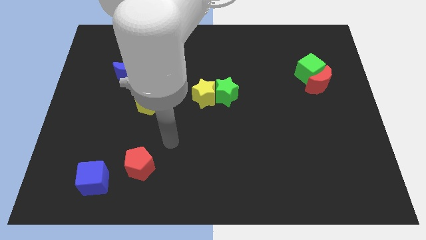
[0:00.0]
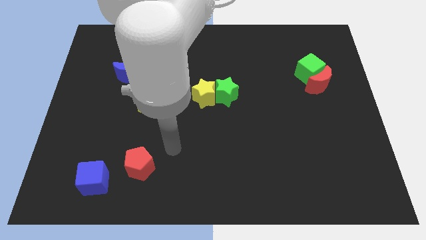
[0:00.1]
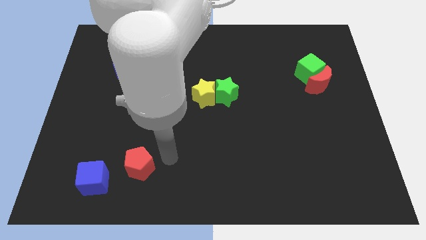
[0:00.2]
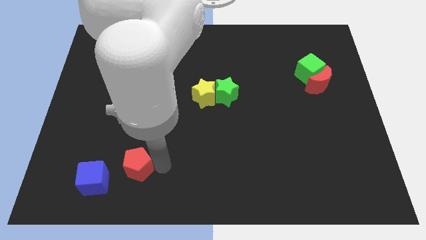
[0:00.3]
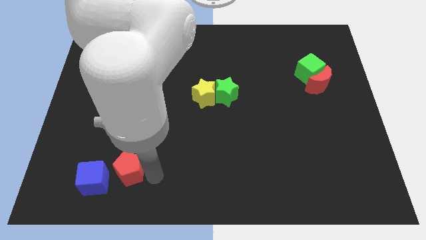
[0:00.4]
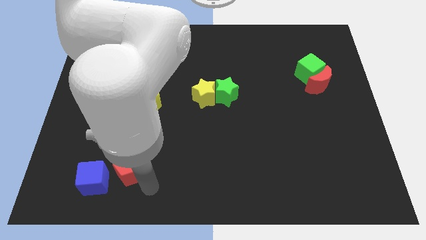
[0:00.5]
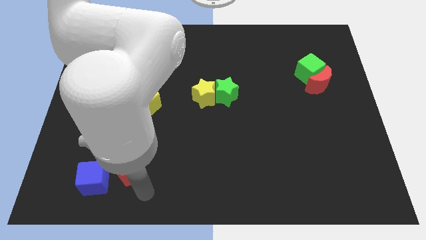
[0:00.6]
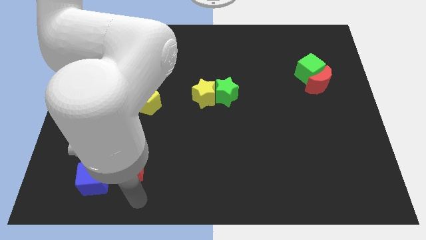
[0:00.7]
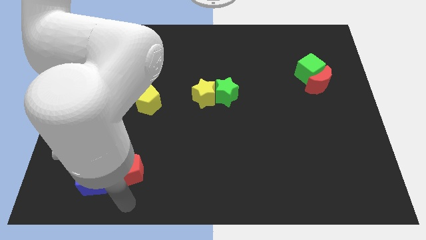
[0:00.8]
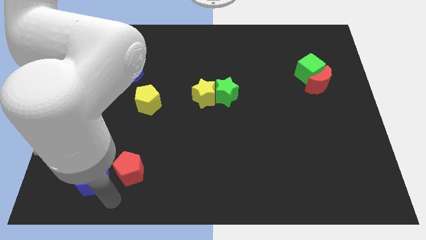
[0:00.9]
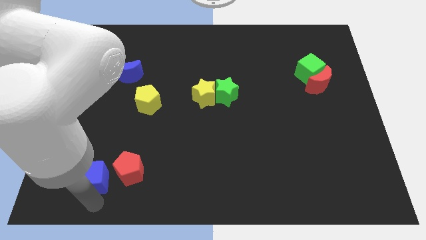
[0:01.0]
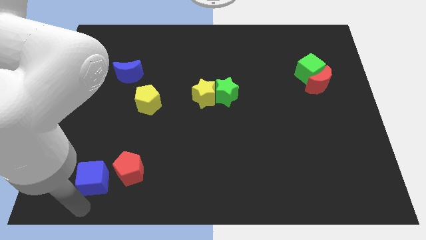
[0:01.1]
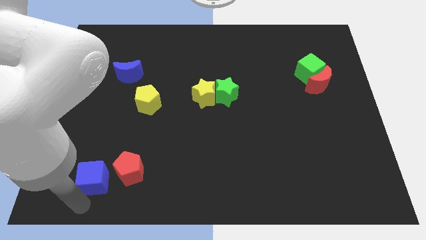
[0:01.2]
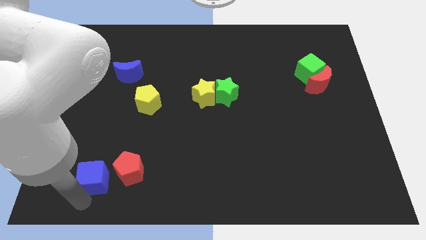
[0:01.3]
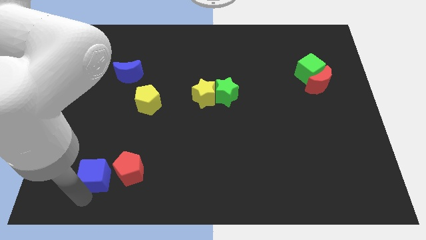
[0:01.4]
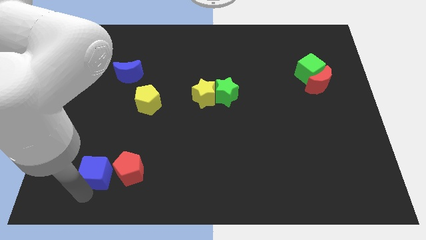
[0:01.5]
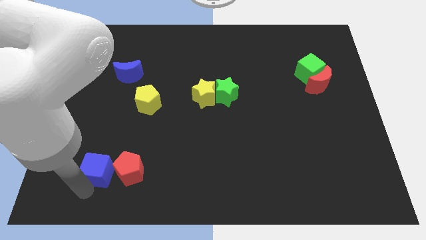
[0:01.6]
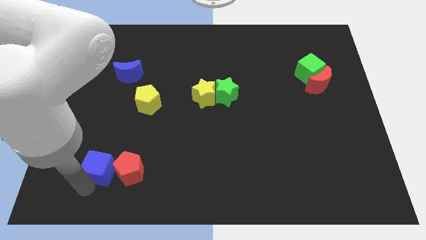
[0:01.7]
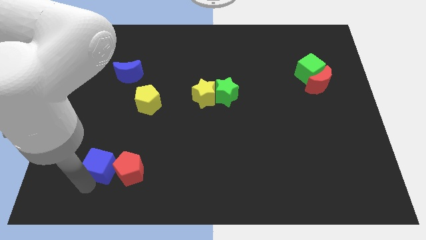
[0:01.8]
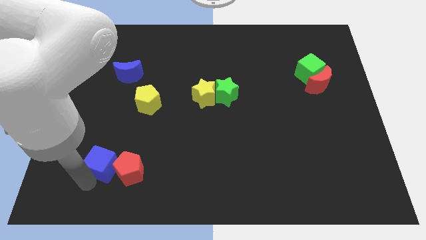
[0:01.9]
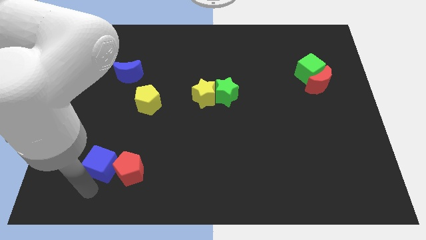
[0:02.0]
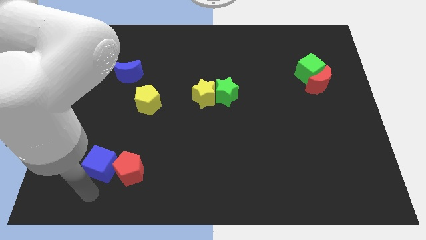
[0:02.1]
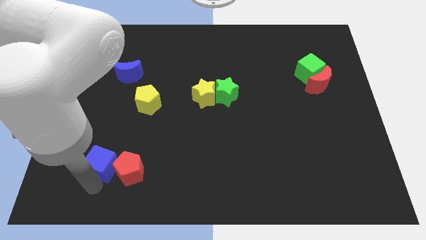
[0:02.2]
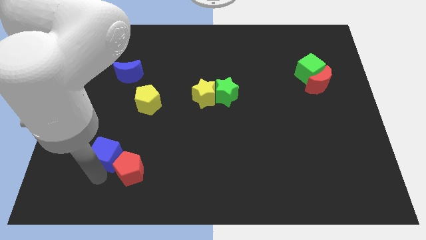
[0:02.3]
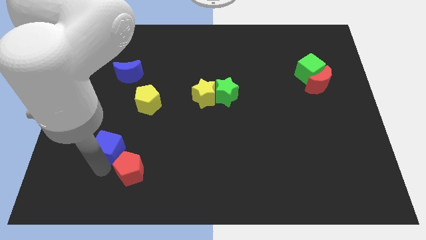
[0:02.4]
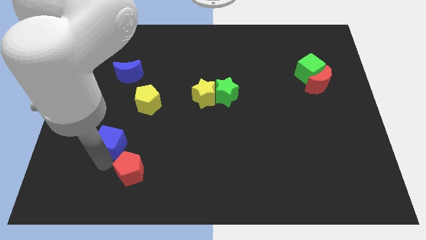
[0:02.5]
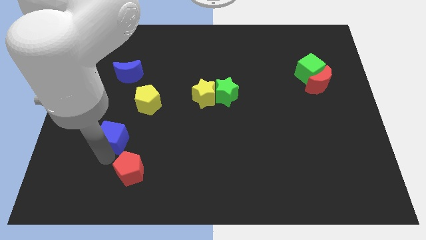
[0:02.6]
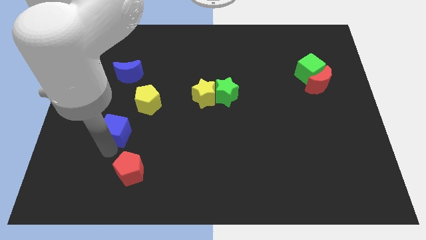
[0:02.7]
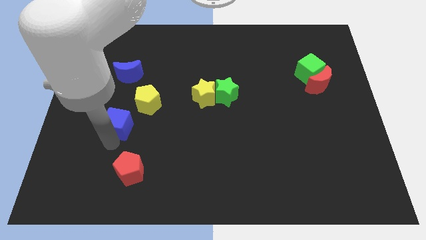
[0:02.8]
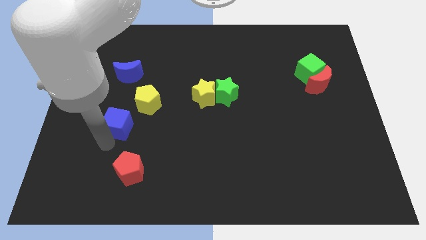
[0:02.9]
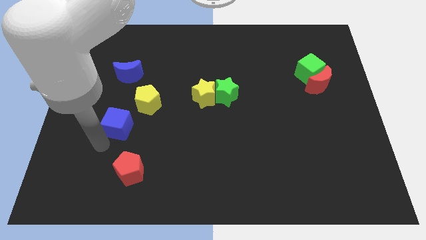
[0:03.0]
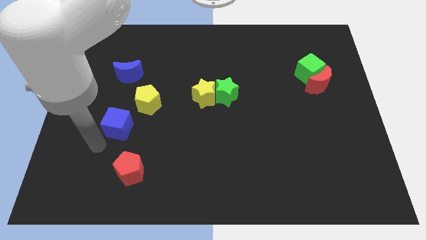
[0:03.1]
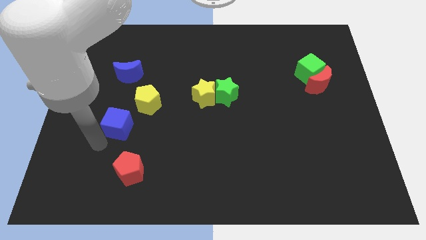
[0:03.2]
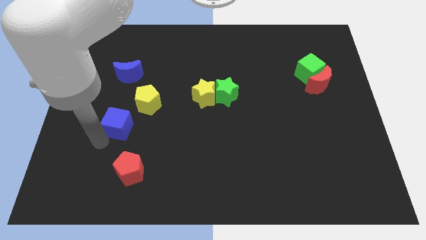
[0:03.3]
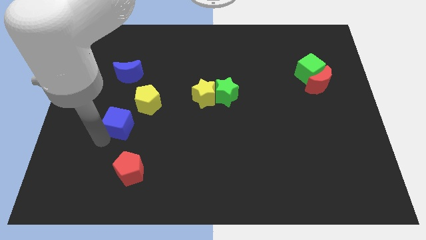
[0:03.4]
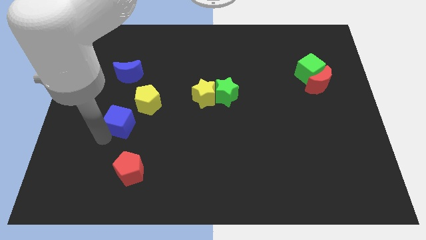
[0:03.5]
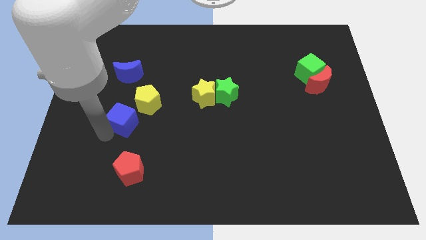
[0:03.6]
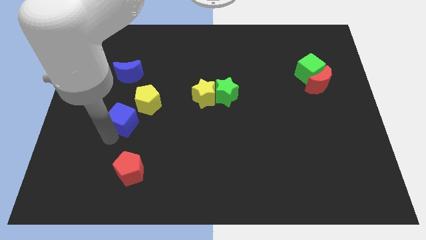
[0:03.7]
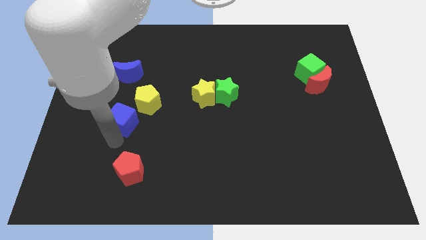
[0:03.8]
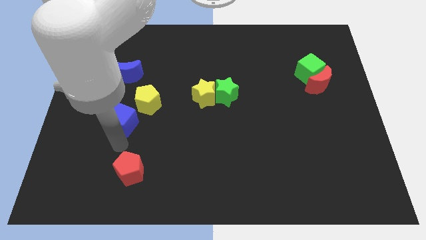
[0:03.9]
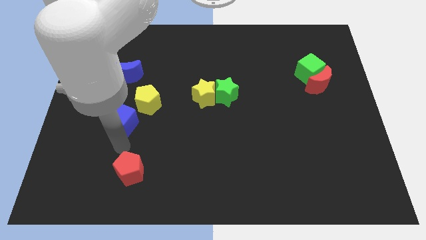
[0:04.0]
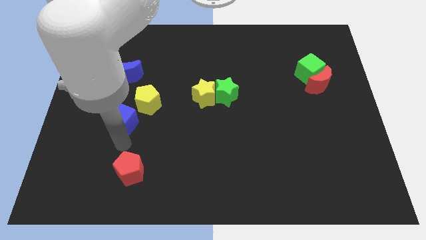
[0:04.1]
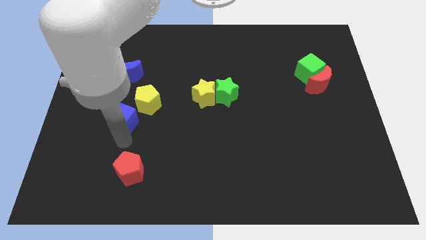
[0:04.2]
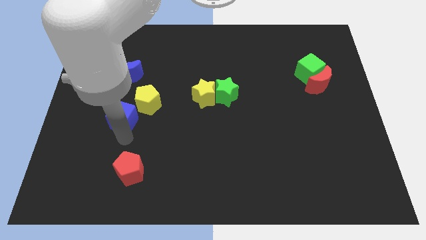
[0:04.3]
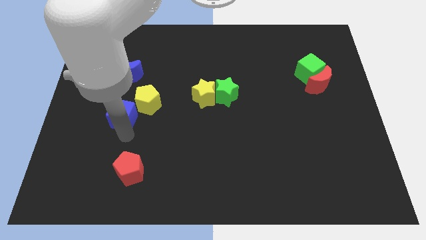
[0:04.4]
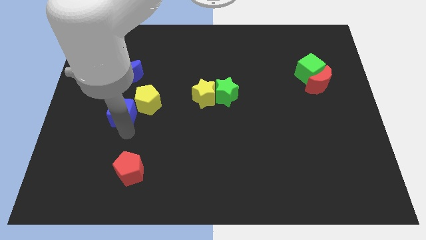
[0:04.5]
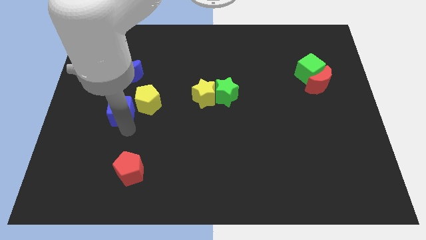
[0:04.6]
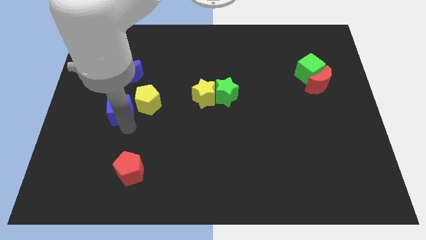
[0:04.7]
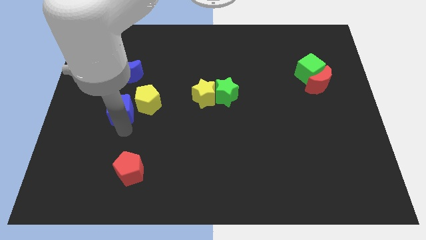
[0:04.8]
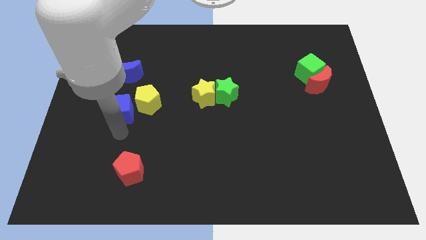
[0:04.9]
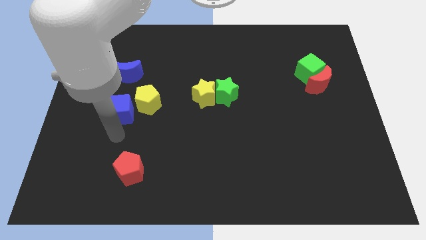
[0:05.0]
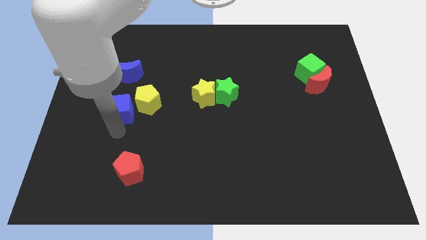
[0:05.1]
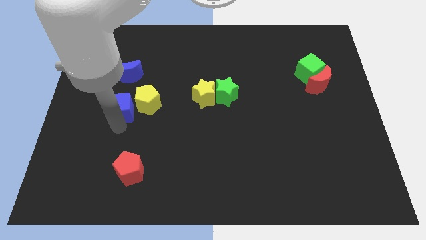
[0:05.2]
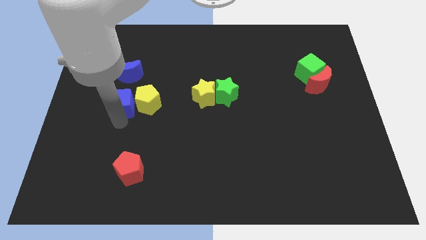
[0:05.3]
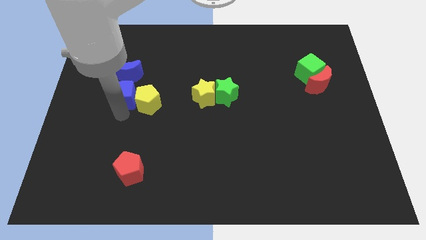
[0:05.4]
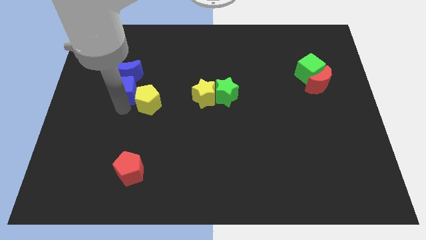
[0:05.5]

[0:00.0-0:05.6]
move the blue cube to the blue moon

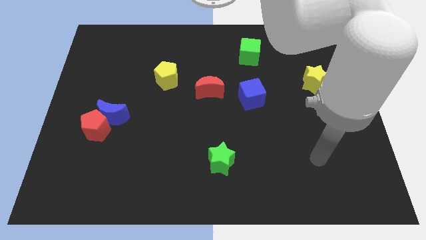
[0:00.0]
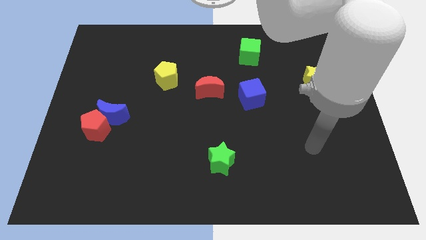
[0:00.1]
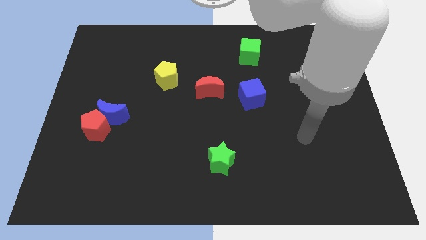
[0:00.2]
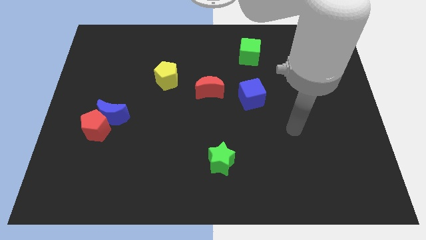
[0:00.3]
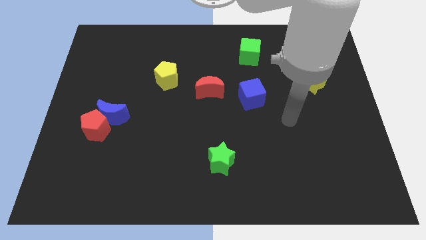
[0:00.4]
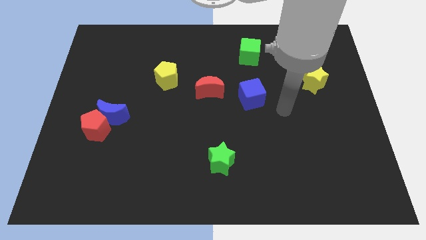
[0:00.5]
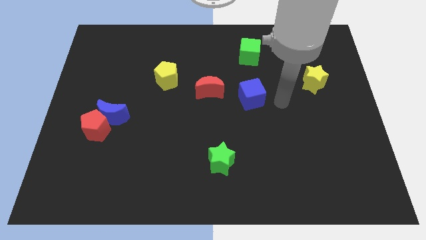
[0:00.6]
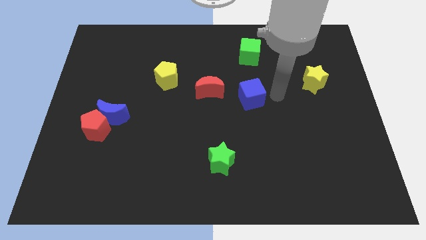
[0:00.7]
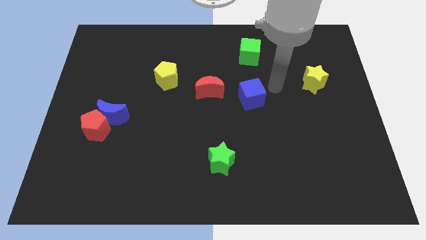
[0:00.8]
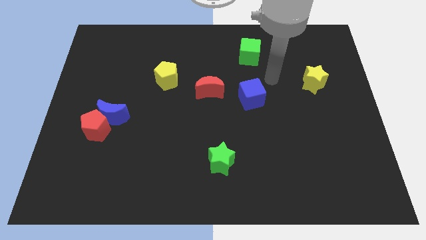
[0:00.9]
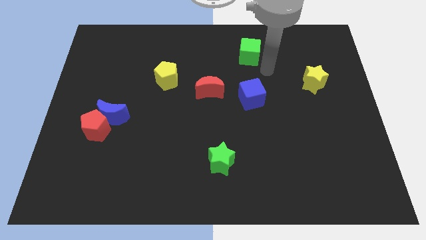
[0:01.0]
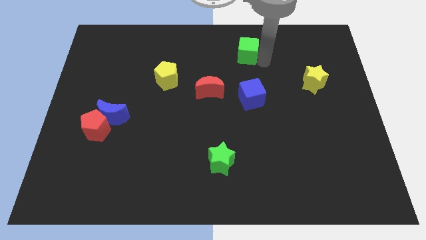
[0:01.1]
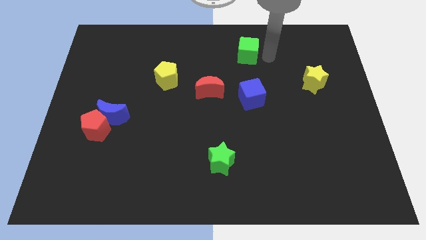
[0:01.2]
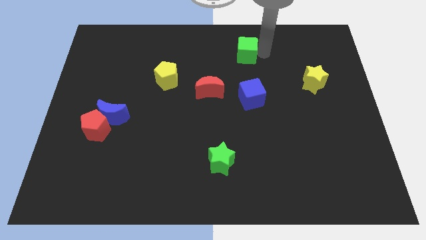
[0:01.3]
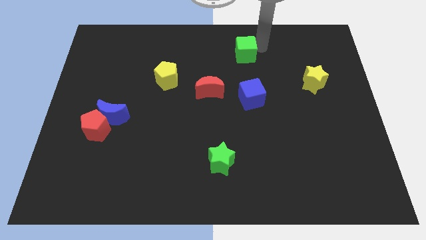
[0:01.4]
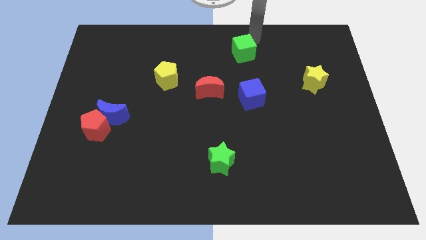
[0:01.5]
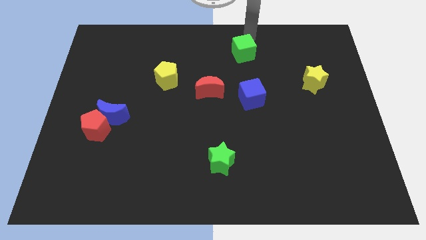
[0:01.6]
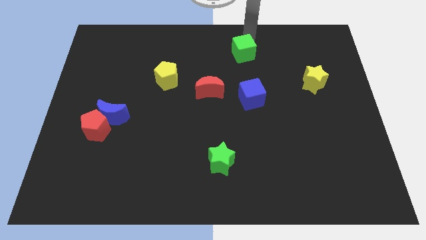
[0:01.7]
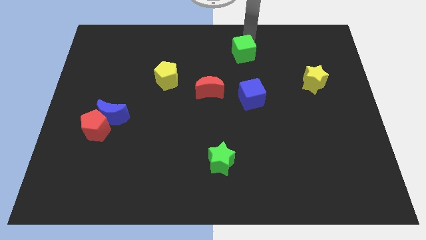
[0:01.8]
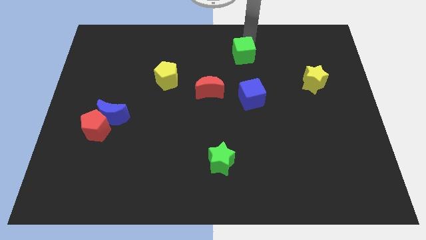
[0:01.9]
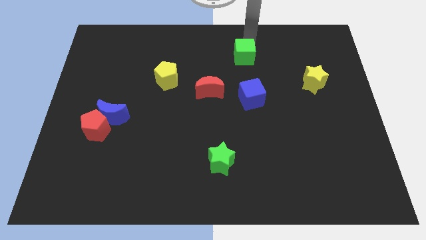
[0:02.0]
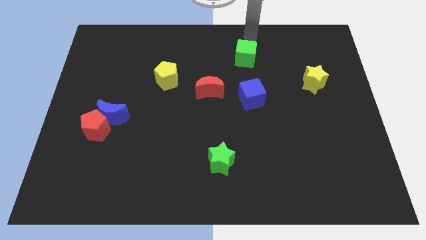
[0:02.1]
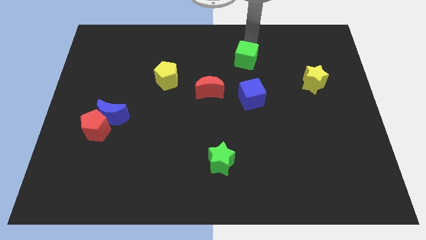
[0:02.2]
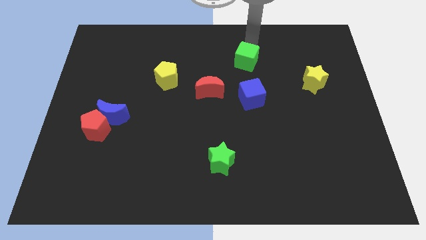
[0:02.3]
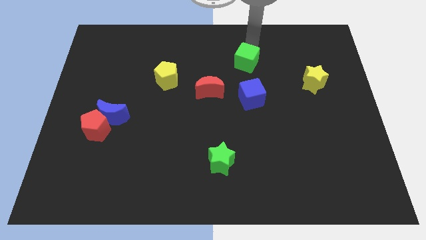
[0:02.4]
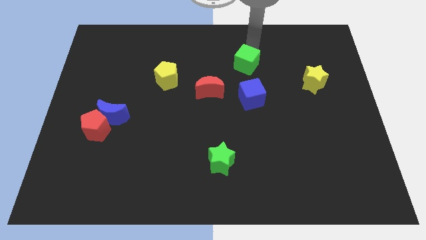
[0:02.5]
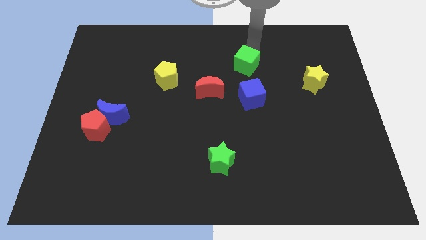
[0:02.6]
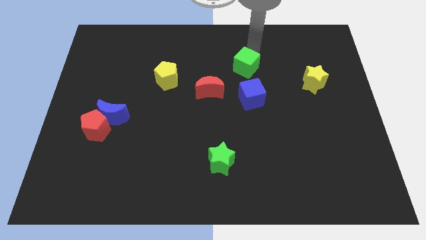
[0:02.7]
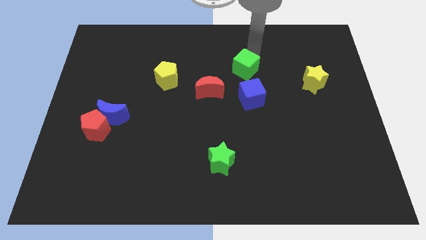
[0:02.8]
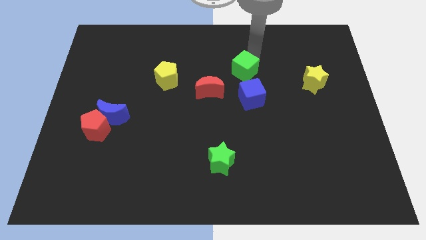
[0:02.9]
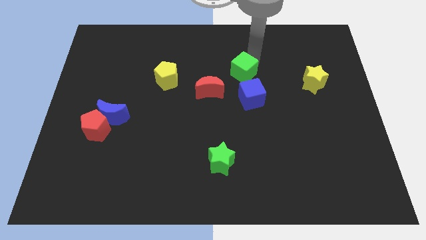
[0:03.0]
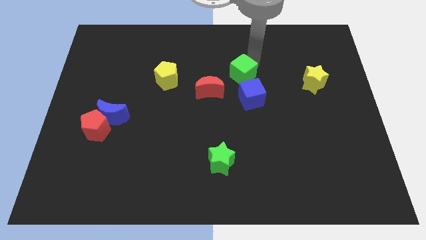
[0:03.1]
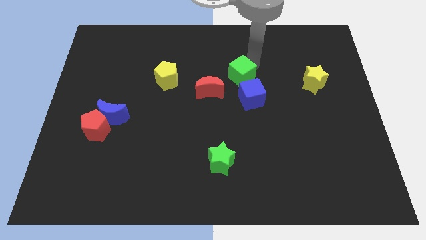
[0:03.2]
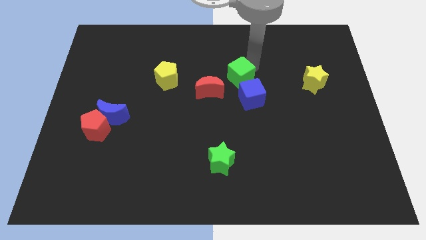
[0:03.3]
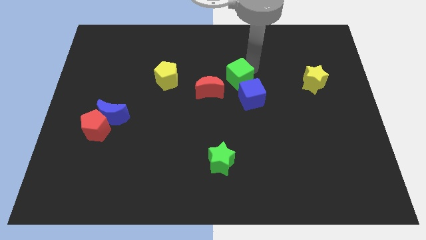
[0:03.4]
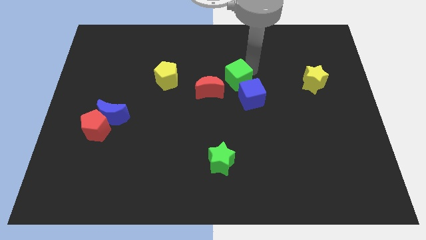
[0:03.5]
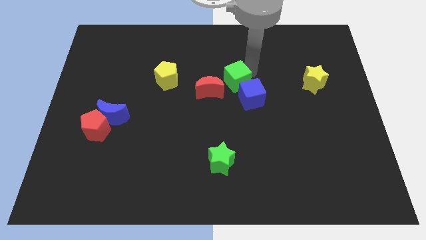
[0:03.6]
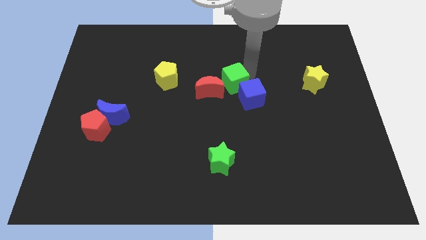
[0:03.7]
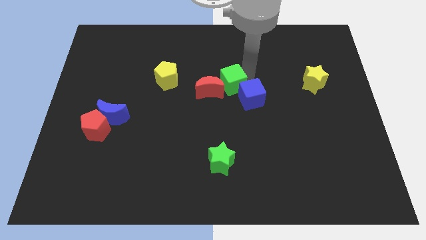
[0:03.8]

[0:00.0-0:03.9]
move the green cube to the red moon
